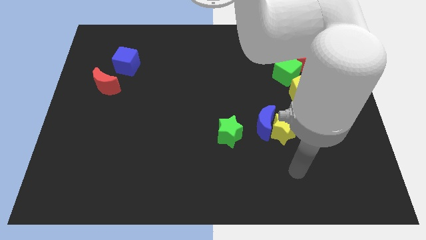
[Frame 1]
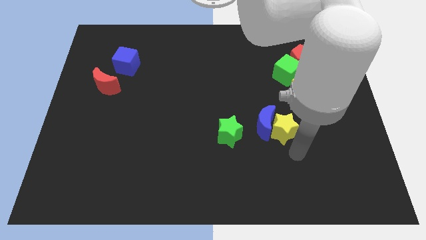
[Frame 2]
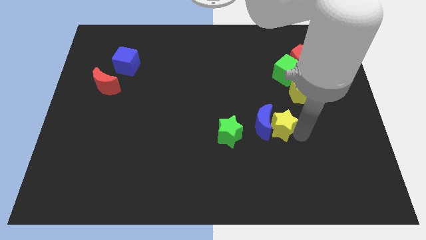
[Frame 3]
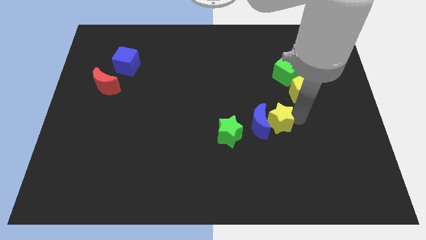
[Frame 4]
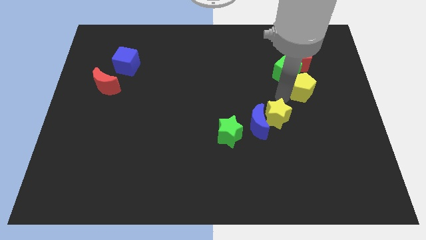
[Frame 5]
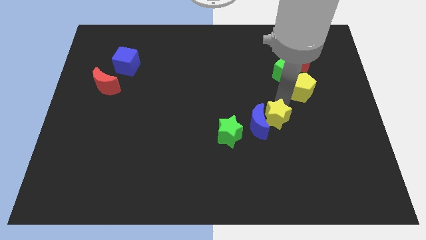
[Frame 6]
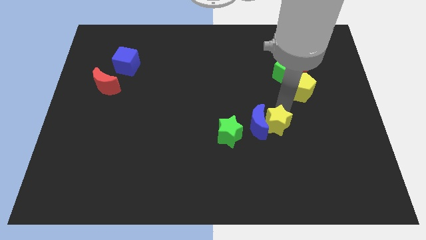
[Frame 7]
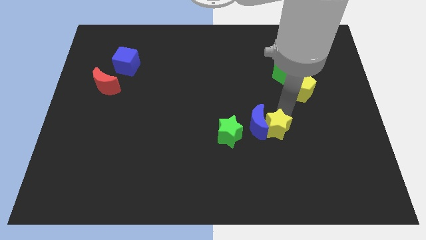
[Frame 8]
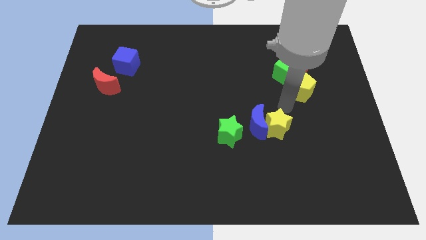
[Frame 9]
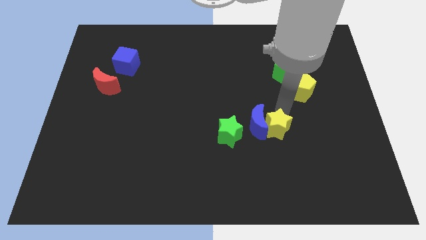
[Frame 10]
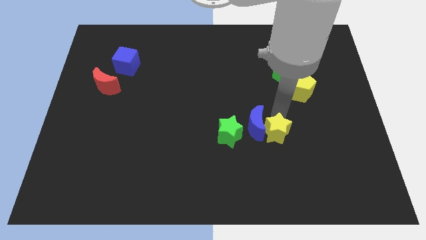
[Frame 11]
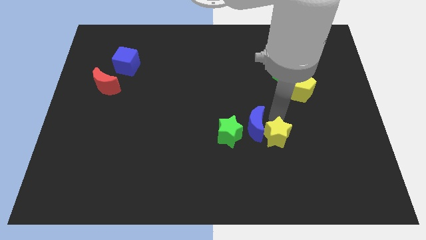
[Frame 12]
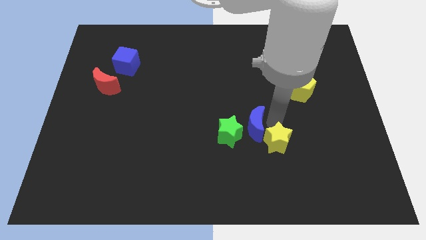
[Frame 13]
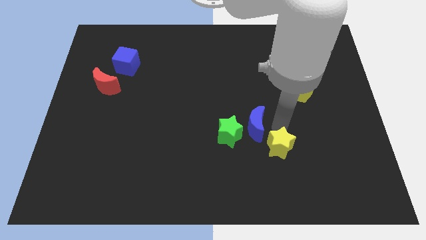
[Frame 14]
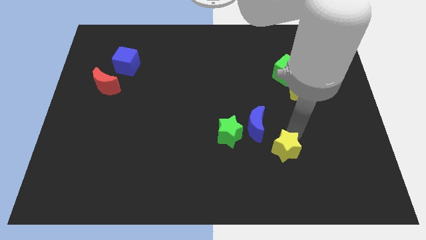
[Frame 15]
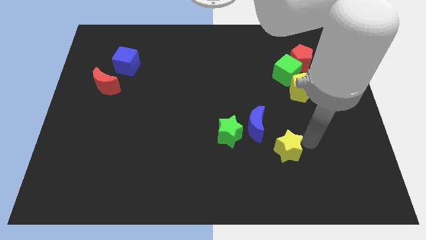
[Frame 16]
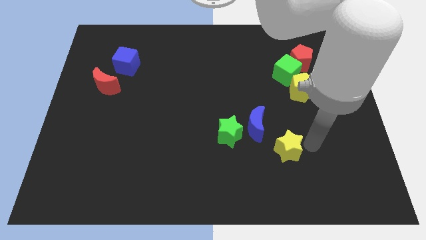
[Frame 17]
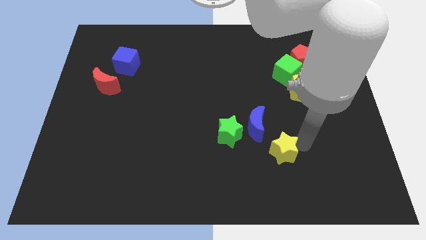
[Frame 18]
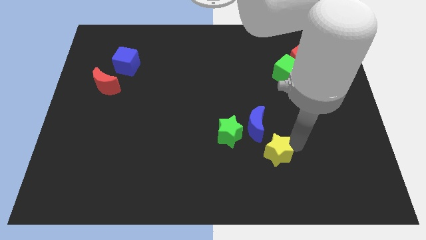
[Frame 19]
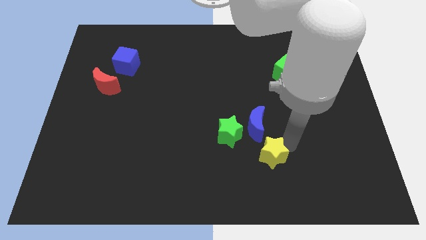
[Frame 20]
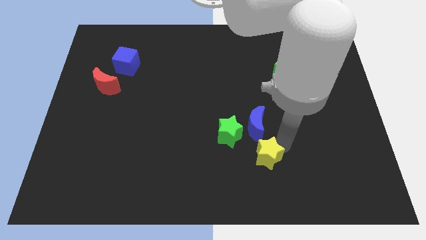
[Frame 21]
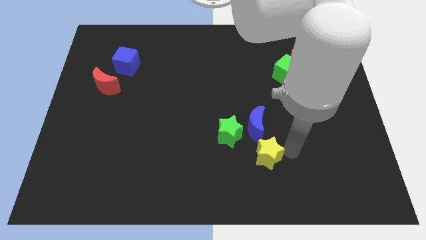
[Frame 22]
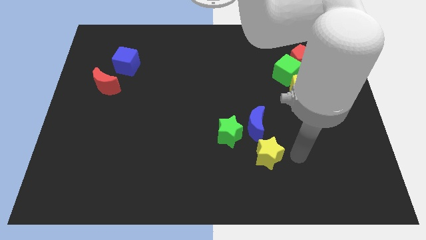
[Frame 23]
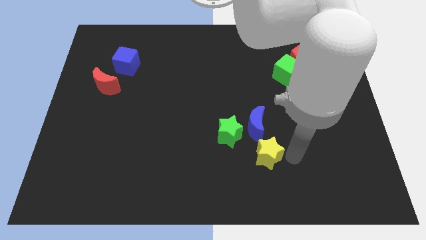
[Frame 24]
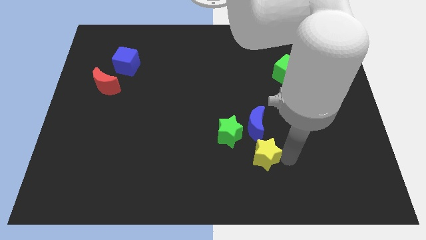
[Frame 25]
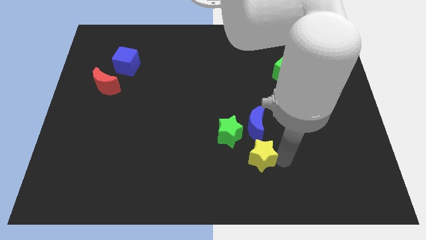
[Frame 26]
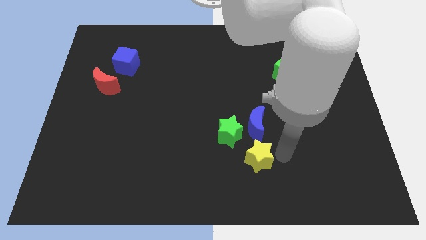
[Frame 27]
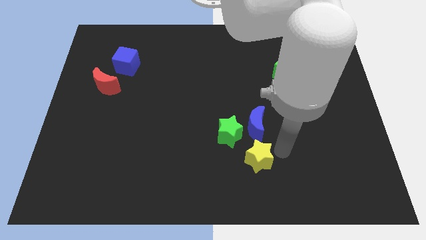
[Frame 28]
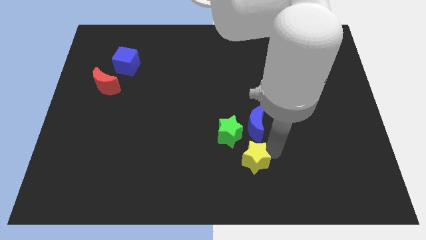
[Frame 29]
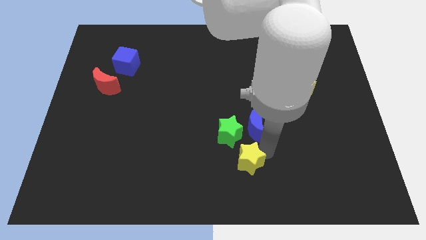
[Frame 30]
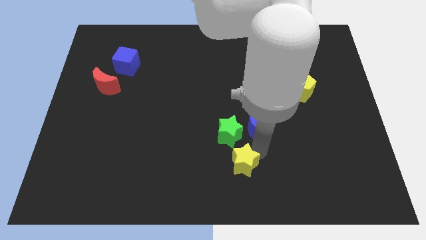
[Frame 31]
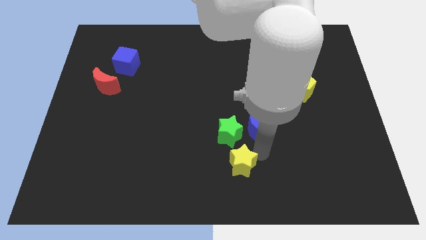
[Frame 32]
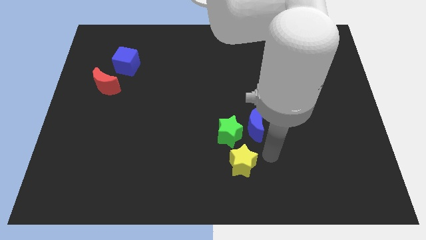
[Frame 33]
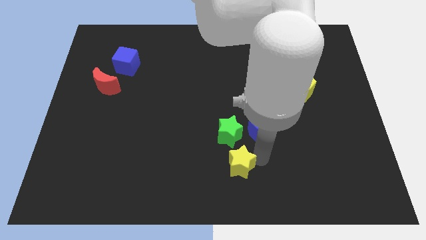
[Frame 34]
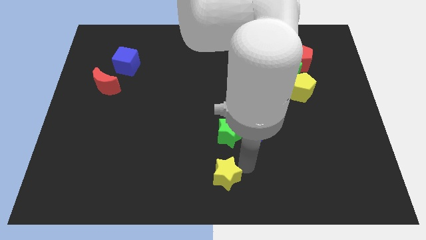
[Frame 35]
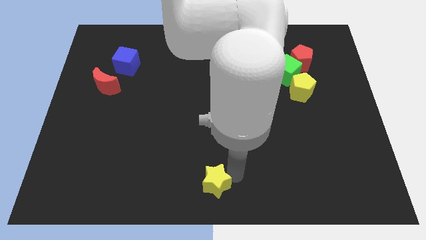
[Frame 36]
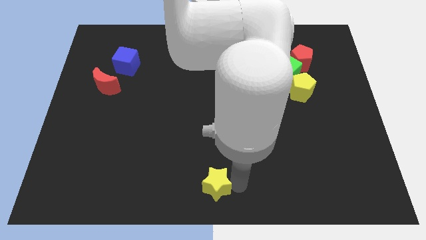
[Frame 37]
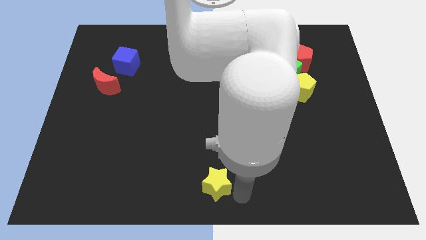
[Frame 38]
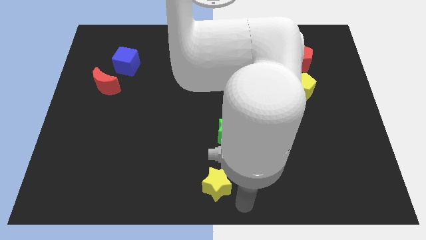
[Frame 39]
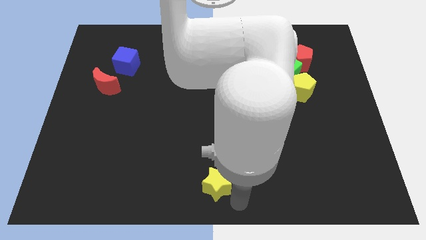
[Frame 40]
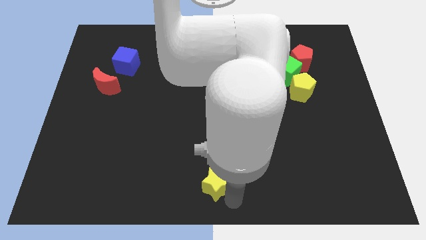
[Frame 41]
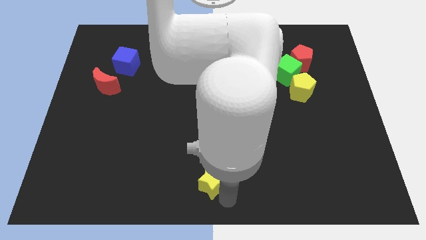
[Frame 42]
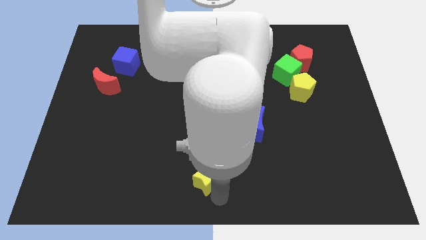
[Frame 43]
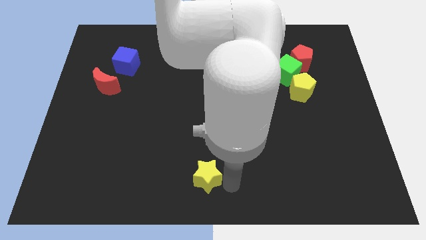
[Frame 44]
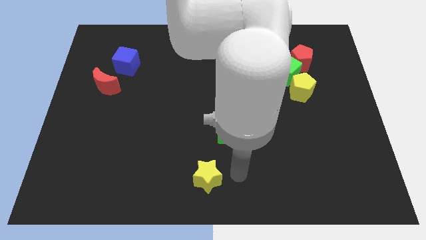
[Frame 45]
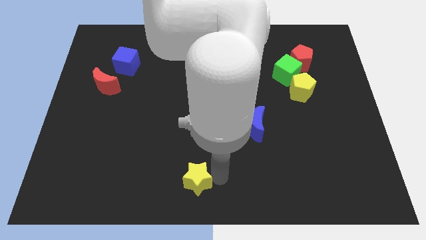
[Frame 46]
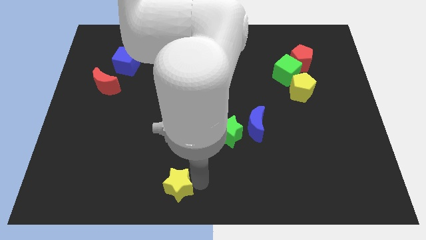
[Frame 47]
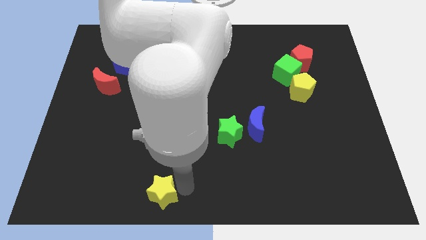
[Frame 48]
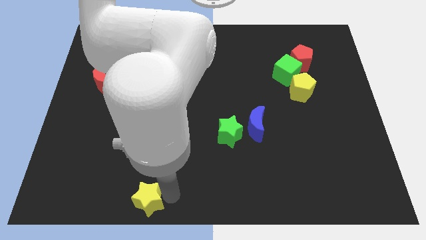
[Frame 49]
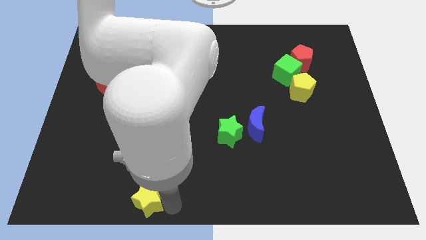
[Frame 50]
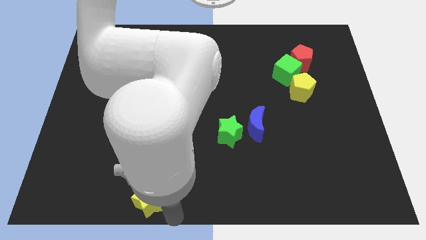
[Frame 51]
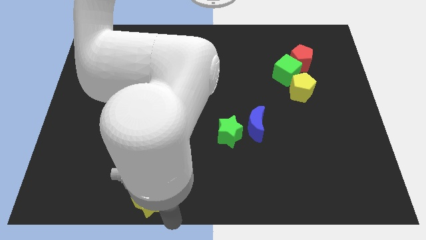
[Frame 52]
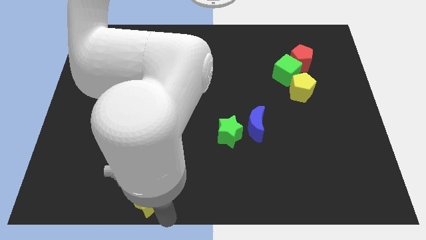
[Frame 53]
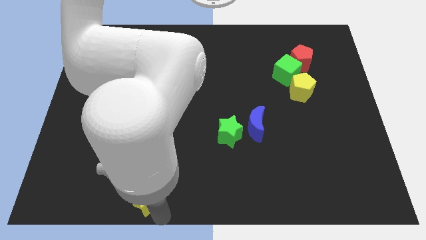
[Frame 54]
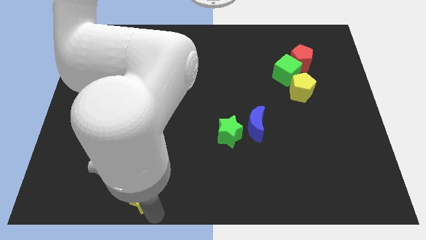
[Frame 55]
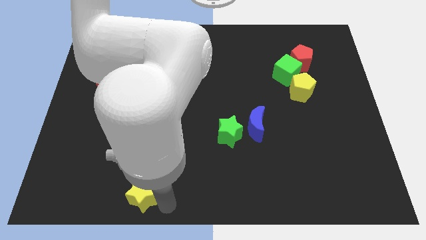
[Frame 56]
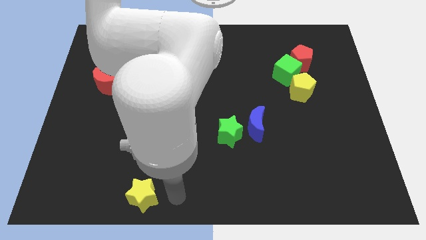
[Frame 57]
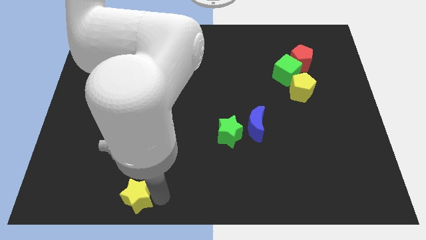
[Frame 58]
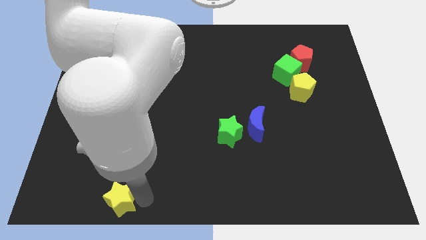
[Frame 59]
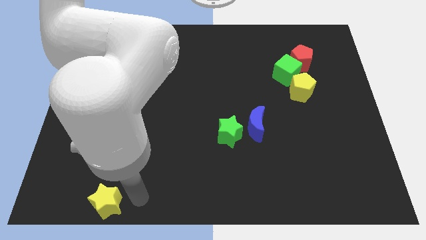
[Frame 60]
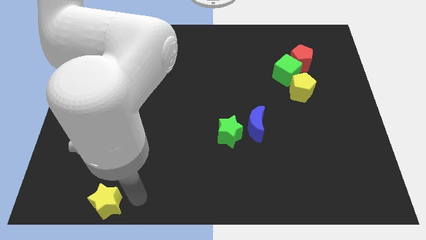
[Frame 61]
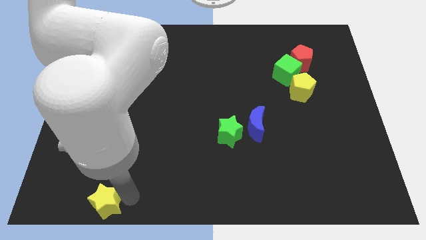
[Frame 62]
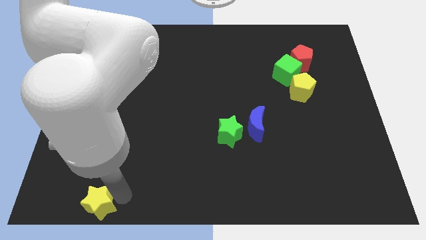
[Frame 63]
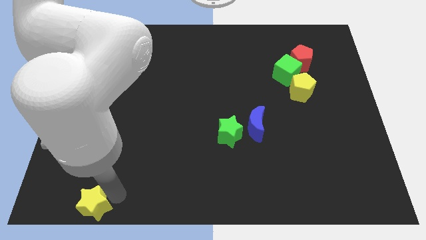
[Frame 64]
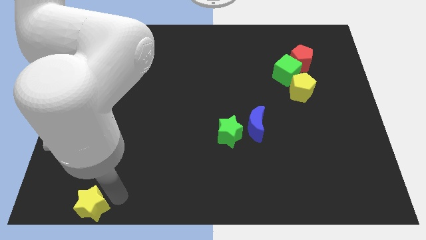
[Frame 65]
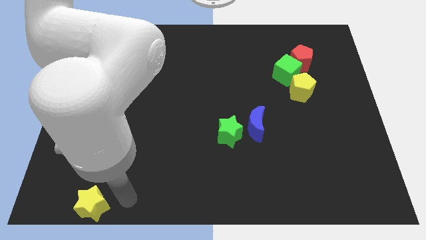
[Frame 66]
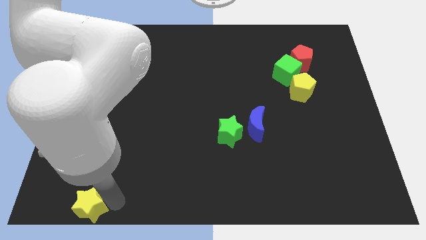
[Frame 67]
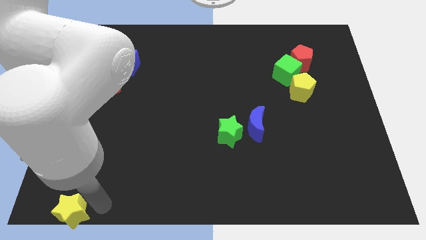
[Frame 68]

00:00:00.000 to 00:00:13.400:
push the yellow star to the lower left corner
